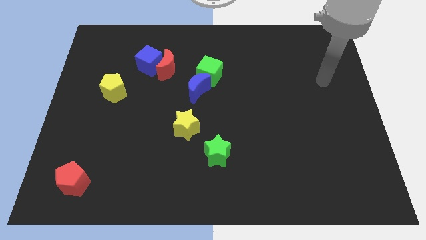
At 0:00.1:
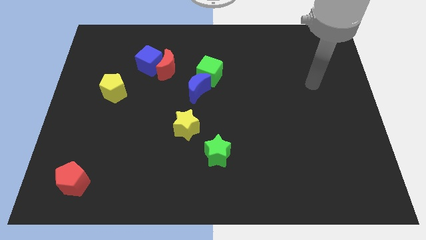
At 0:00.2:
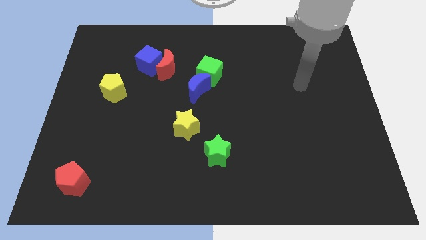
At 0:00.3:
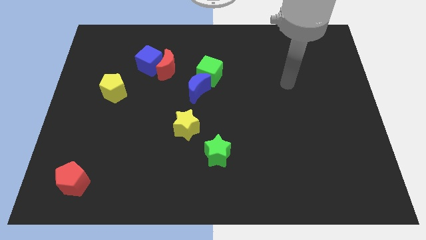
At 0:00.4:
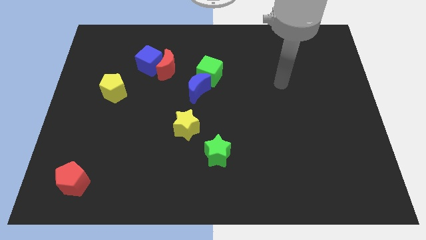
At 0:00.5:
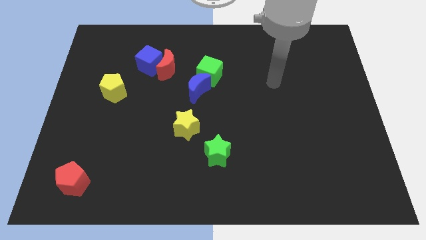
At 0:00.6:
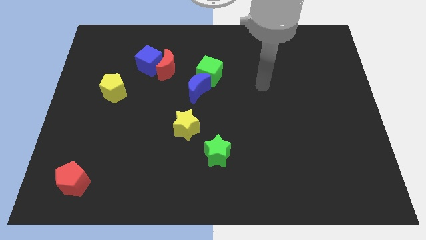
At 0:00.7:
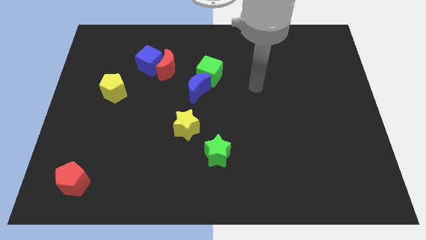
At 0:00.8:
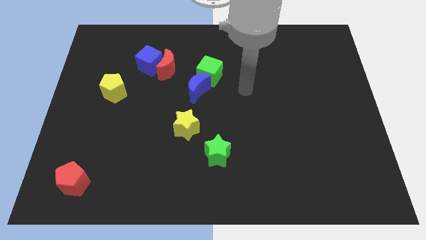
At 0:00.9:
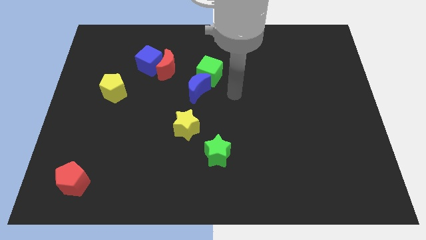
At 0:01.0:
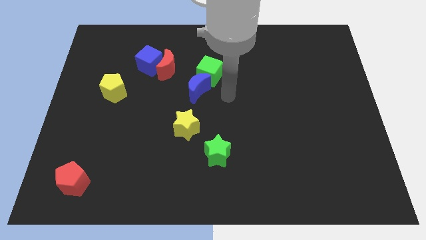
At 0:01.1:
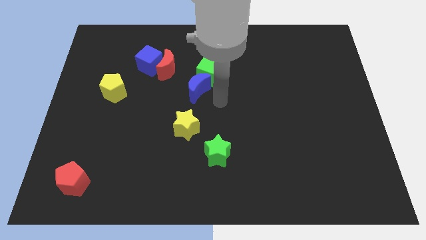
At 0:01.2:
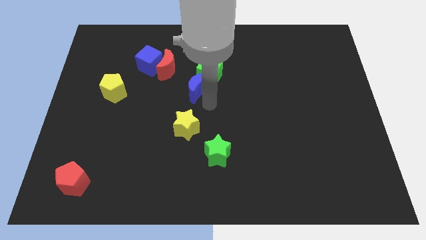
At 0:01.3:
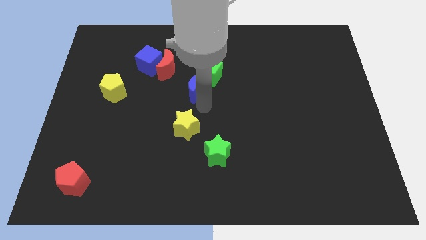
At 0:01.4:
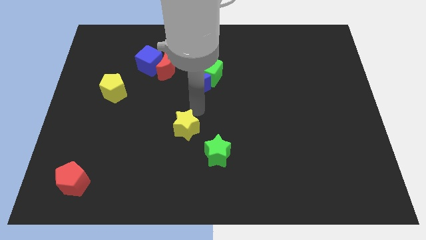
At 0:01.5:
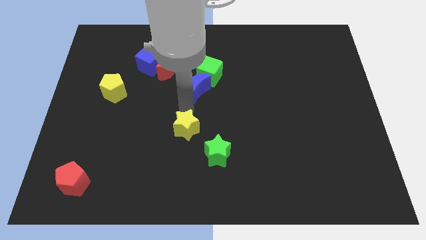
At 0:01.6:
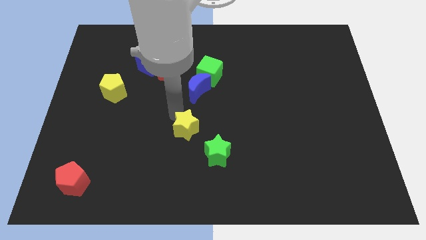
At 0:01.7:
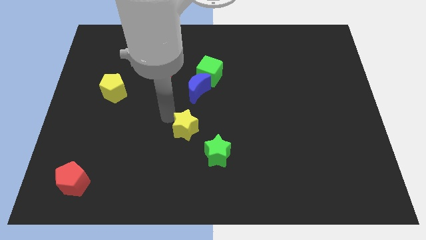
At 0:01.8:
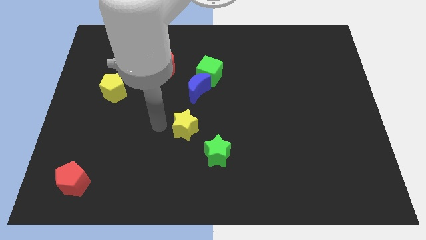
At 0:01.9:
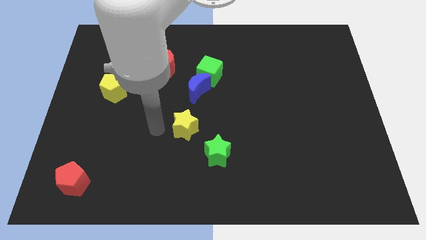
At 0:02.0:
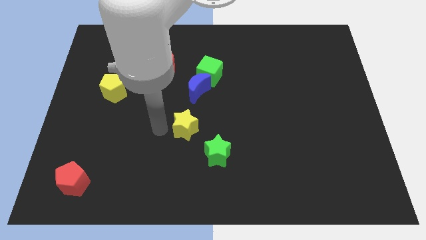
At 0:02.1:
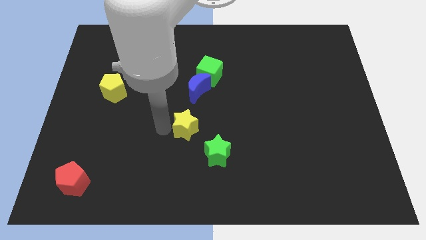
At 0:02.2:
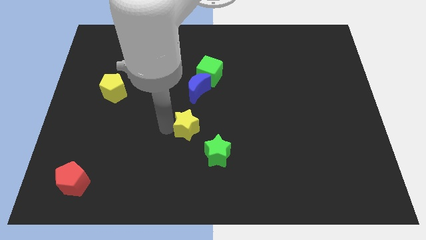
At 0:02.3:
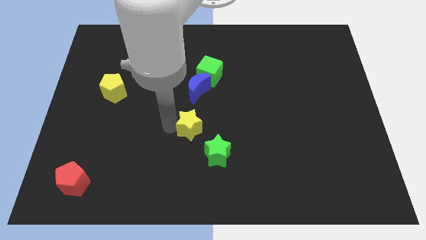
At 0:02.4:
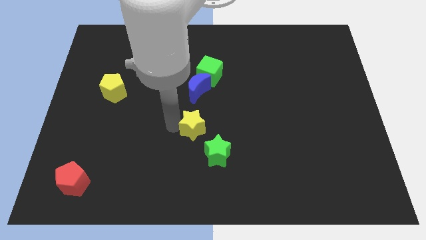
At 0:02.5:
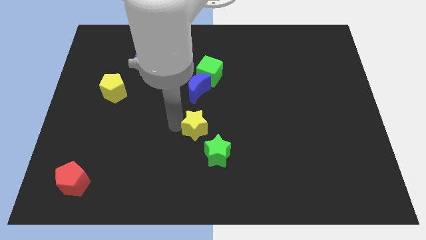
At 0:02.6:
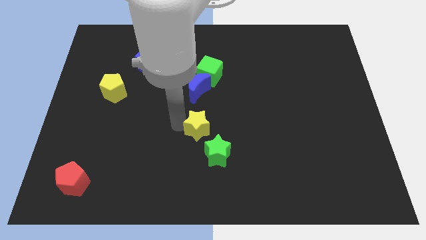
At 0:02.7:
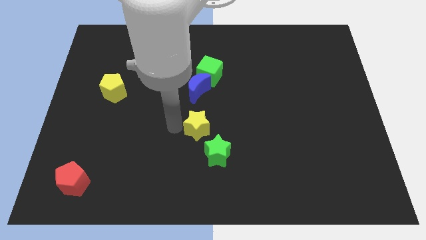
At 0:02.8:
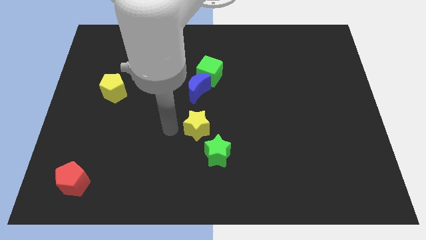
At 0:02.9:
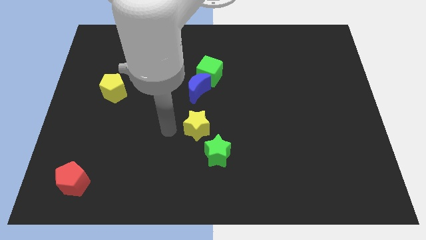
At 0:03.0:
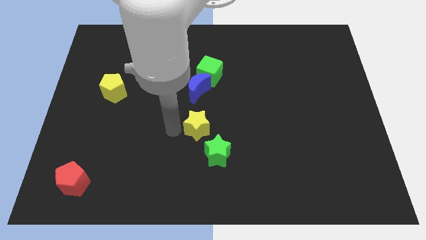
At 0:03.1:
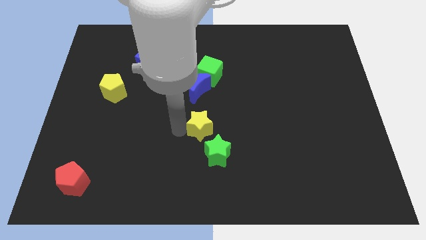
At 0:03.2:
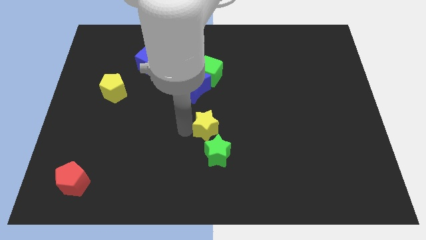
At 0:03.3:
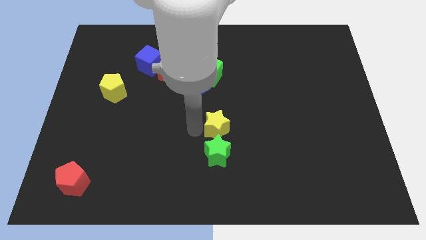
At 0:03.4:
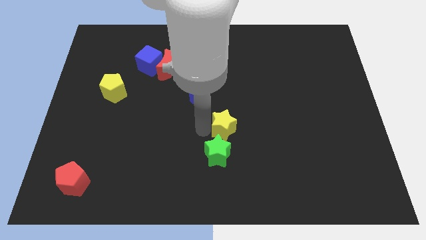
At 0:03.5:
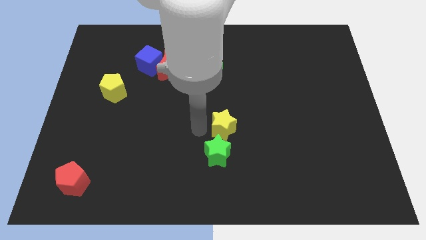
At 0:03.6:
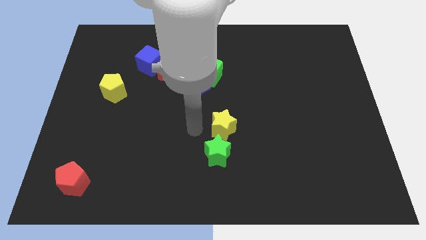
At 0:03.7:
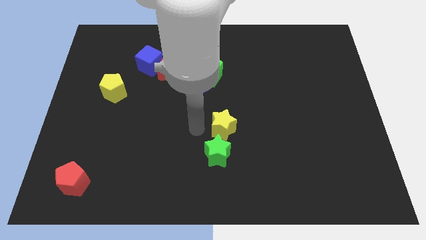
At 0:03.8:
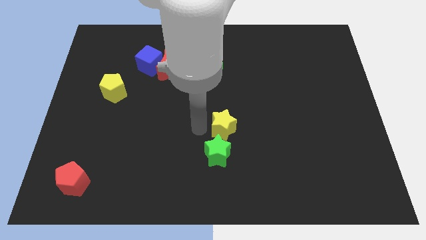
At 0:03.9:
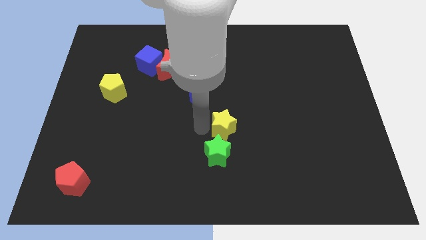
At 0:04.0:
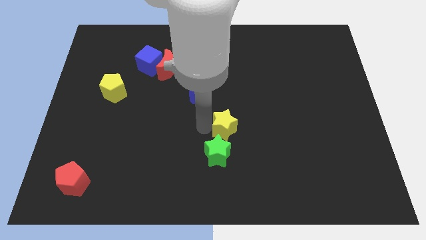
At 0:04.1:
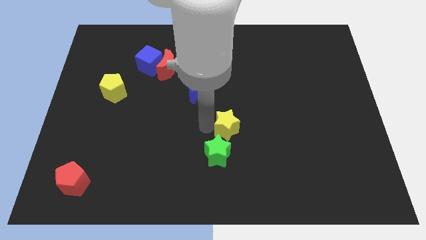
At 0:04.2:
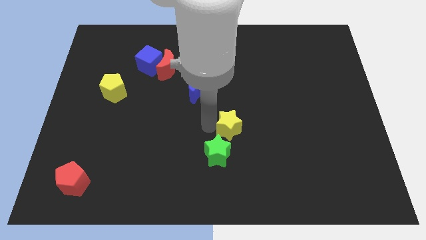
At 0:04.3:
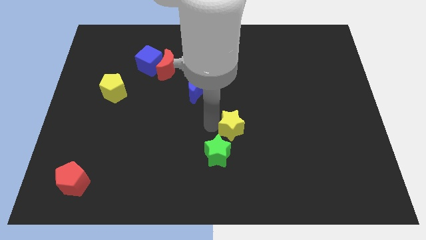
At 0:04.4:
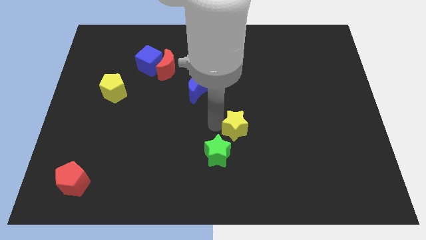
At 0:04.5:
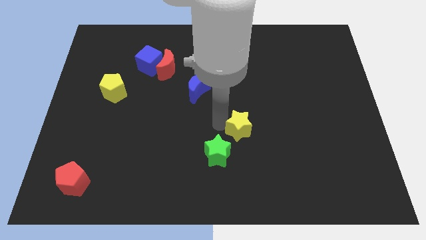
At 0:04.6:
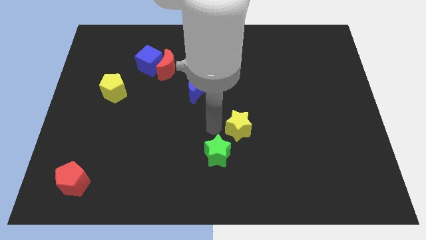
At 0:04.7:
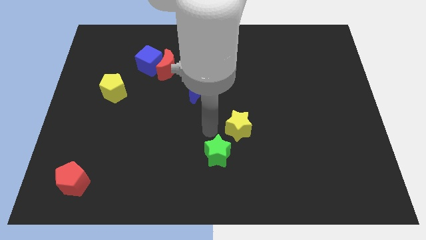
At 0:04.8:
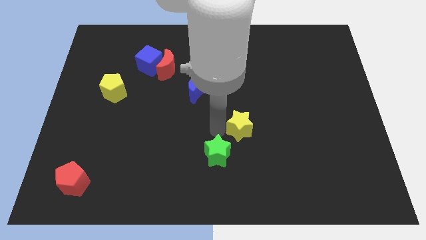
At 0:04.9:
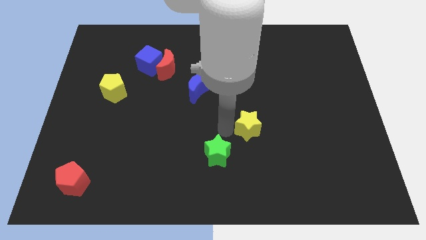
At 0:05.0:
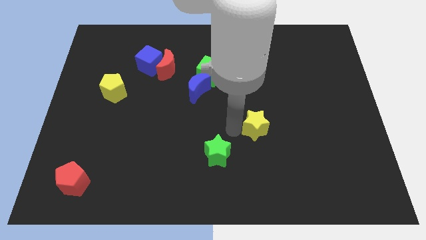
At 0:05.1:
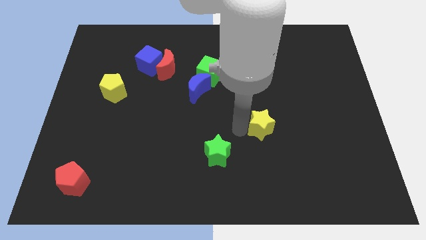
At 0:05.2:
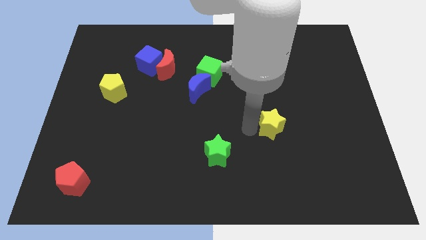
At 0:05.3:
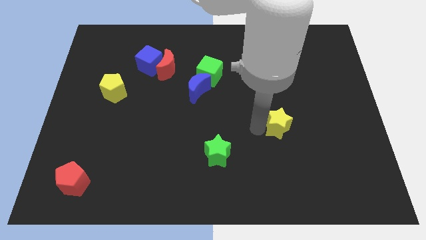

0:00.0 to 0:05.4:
move the yellow star to the right

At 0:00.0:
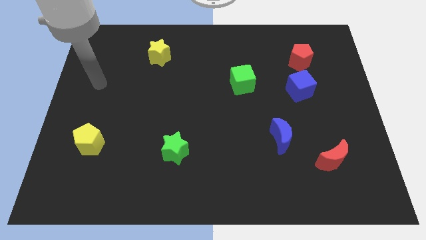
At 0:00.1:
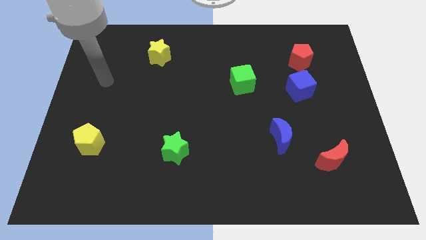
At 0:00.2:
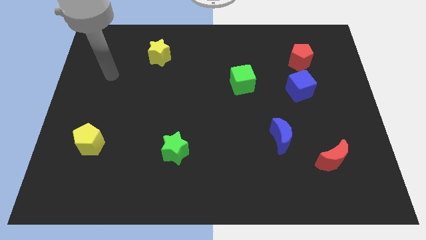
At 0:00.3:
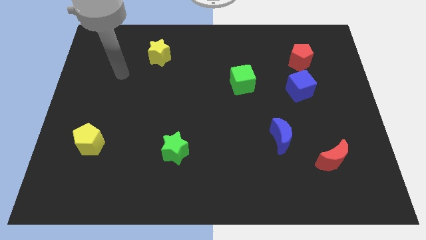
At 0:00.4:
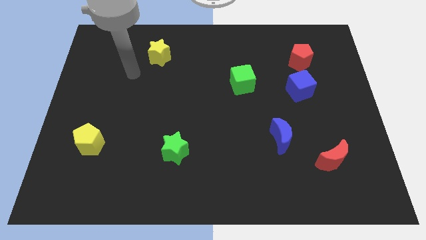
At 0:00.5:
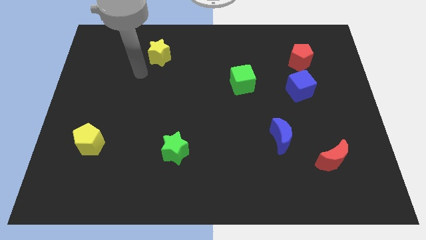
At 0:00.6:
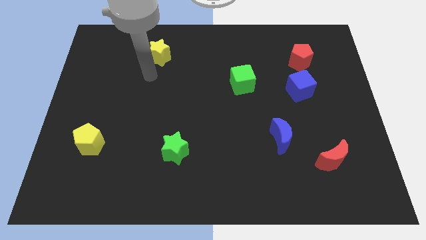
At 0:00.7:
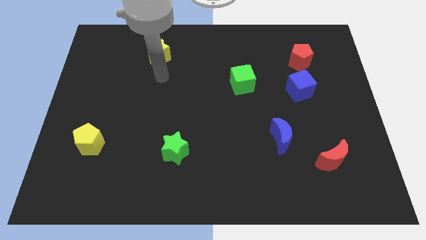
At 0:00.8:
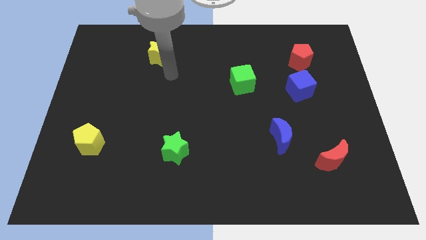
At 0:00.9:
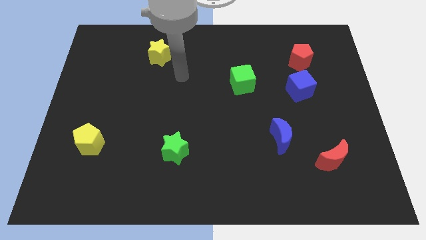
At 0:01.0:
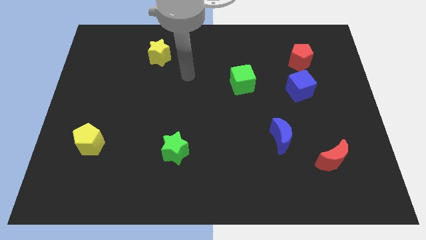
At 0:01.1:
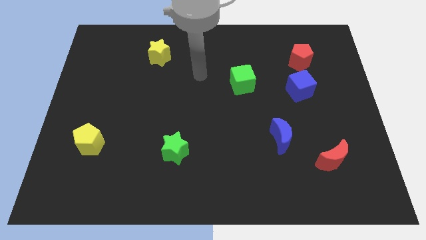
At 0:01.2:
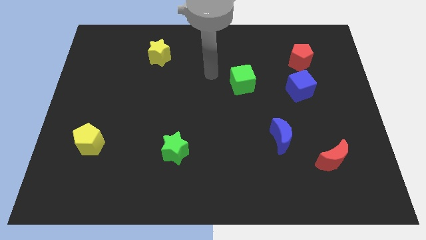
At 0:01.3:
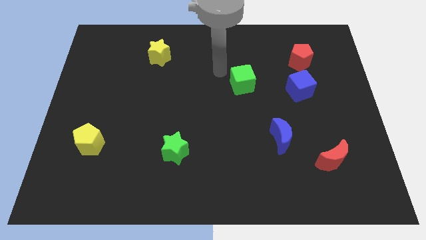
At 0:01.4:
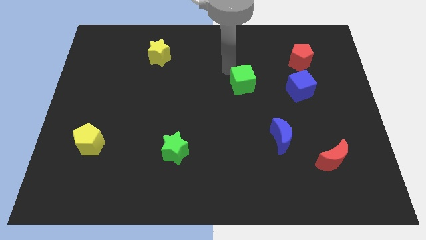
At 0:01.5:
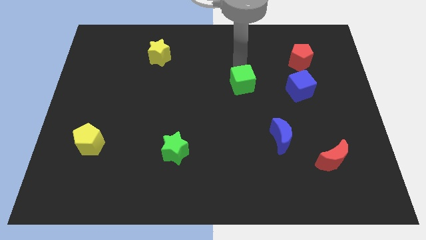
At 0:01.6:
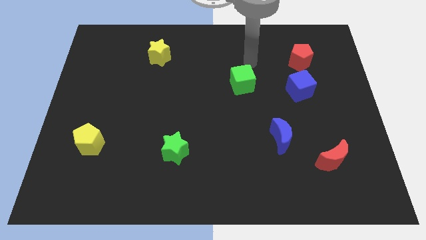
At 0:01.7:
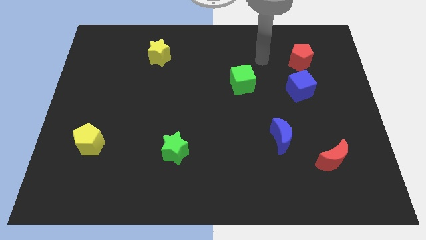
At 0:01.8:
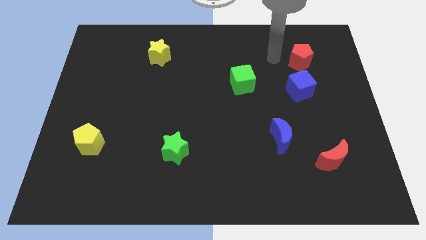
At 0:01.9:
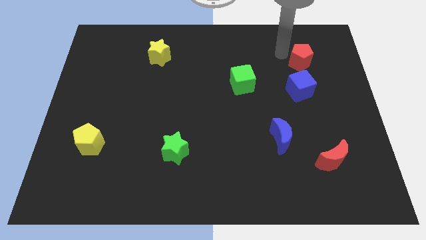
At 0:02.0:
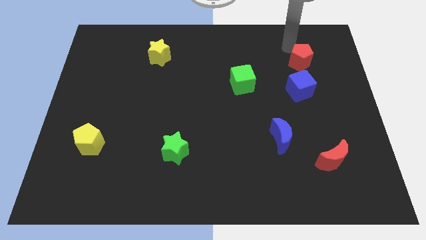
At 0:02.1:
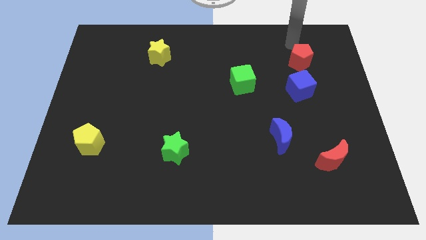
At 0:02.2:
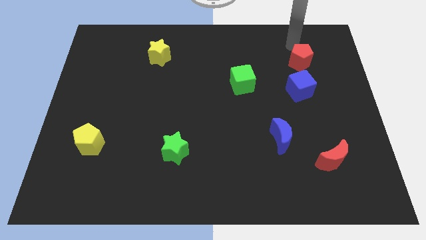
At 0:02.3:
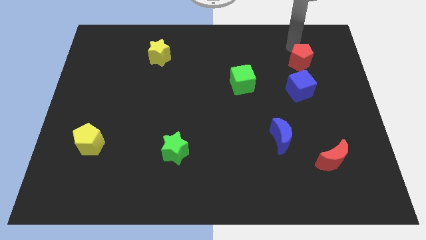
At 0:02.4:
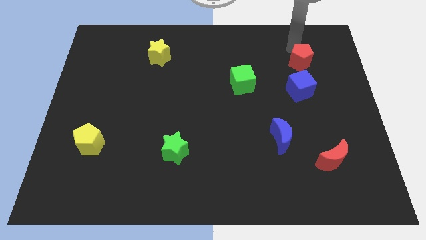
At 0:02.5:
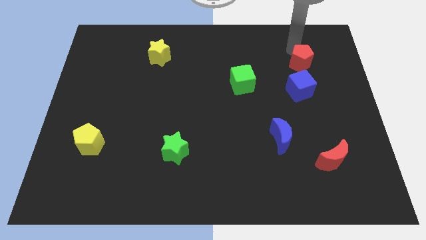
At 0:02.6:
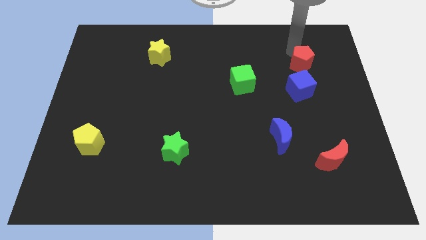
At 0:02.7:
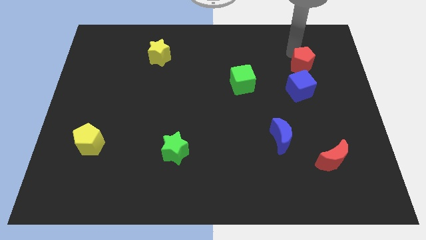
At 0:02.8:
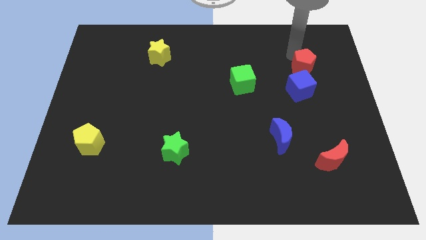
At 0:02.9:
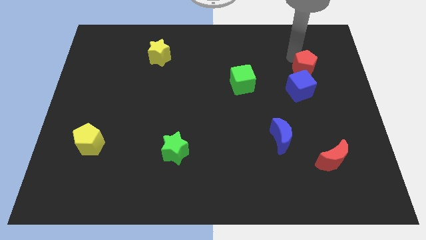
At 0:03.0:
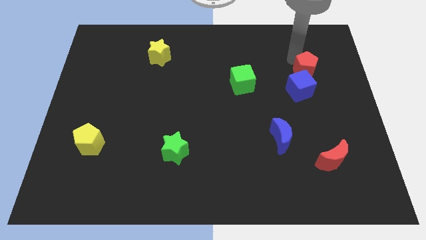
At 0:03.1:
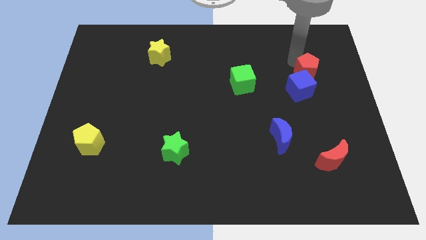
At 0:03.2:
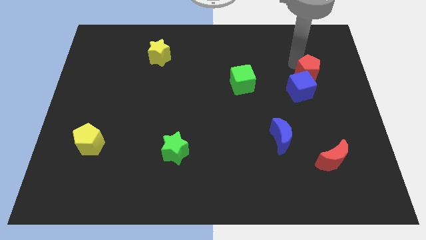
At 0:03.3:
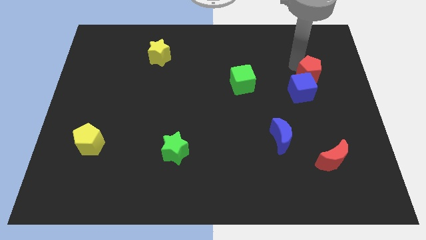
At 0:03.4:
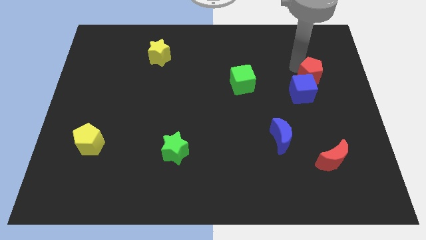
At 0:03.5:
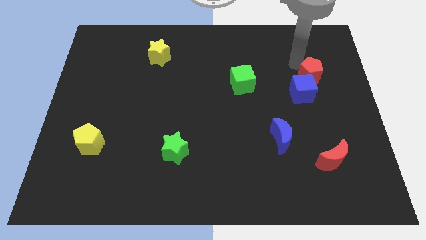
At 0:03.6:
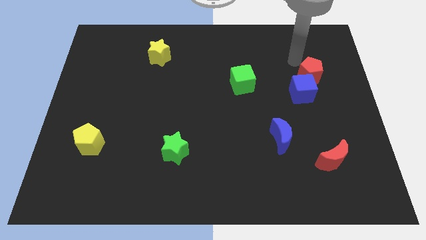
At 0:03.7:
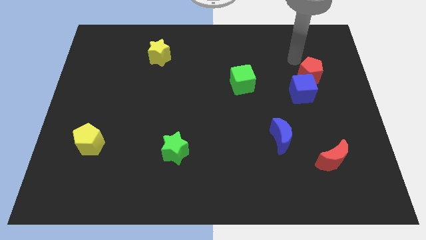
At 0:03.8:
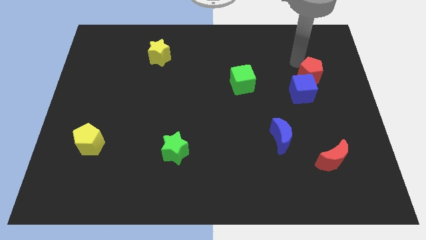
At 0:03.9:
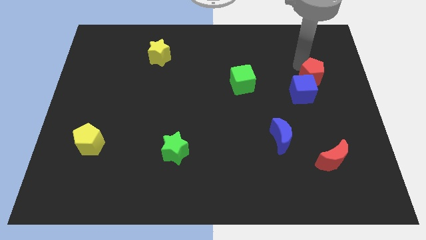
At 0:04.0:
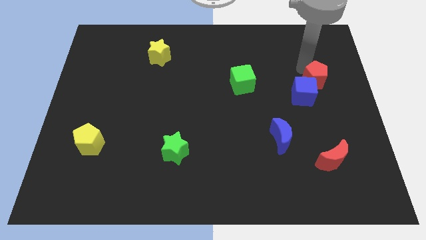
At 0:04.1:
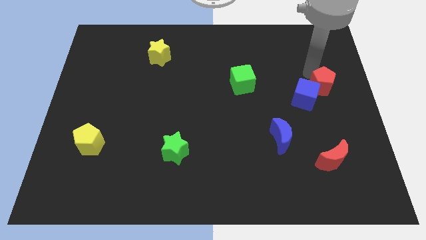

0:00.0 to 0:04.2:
slide the red pentagon down slightly
